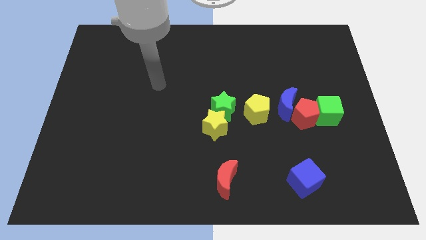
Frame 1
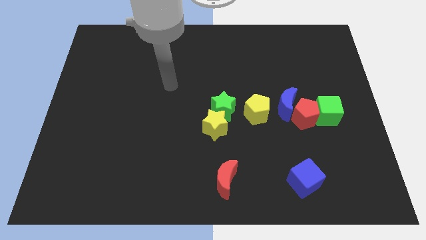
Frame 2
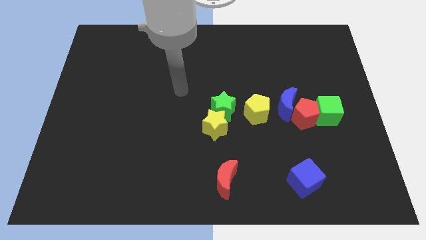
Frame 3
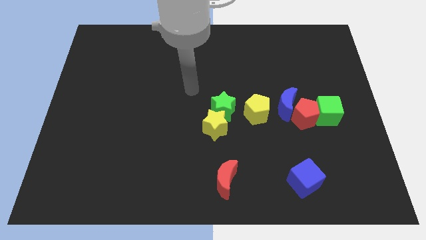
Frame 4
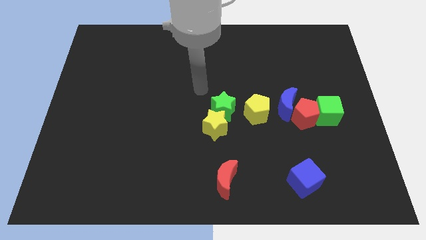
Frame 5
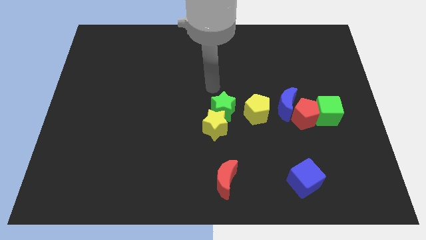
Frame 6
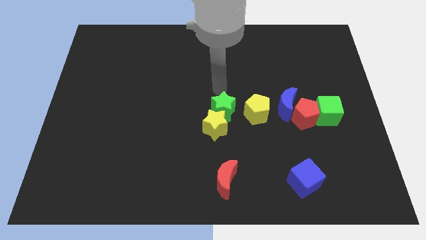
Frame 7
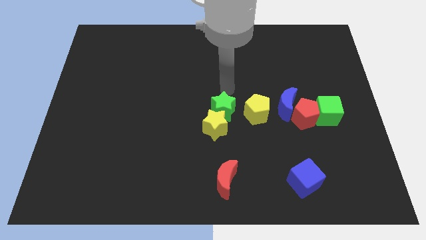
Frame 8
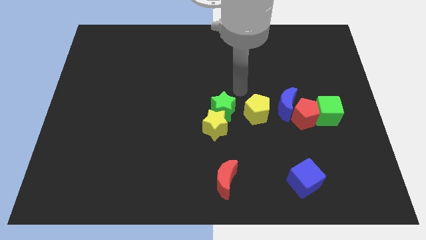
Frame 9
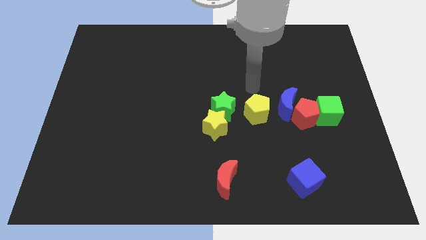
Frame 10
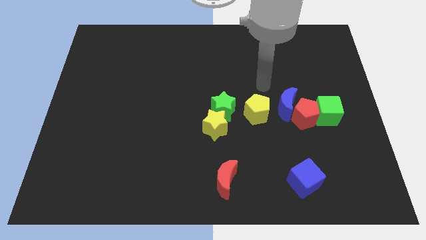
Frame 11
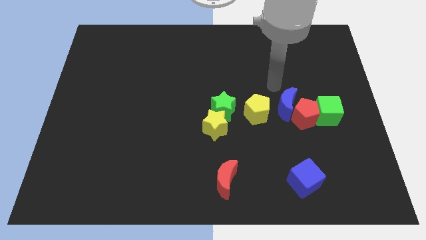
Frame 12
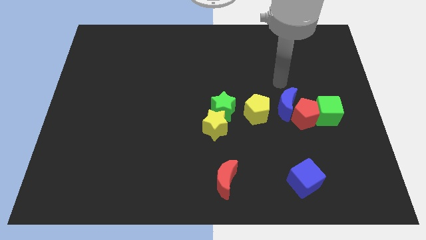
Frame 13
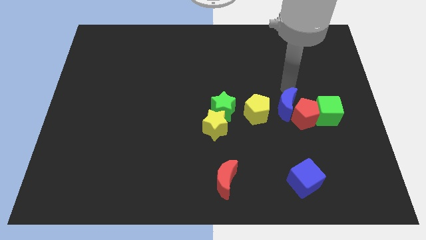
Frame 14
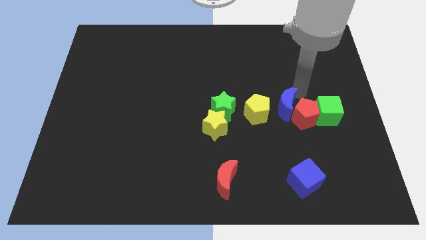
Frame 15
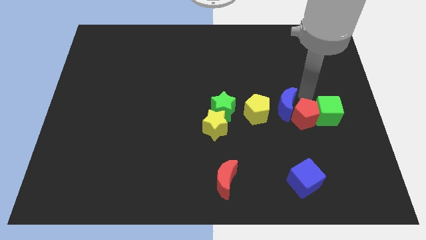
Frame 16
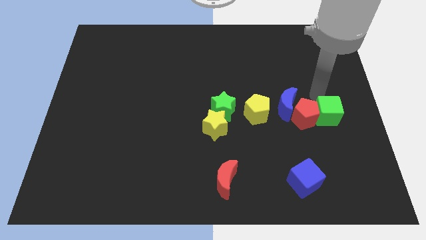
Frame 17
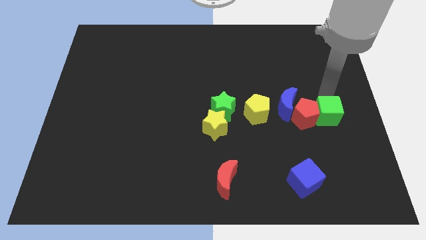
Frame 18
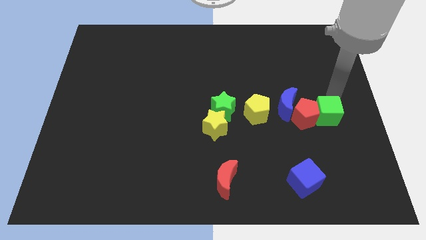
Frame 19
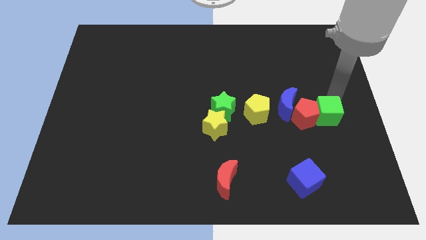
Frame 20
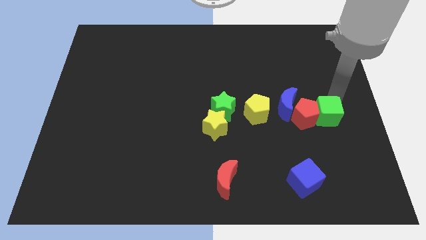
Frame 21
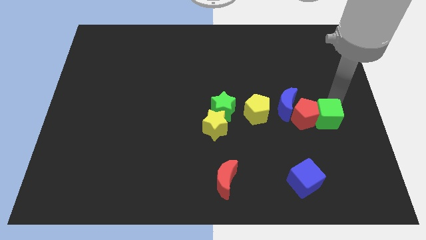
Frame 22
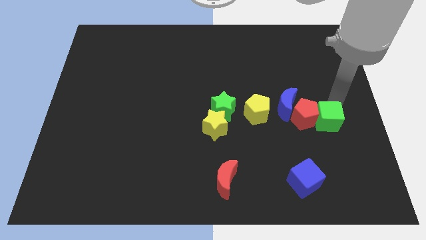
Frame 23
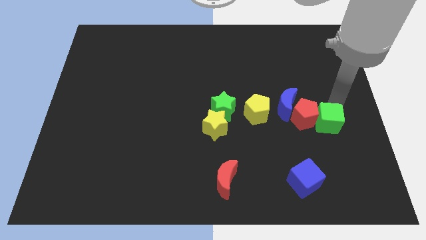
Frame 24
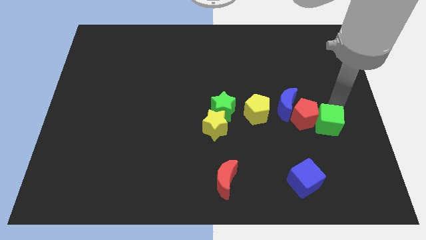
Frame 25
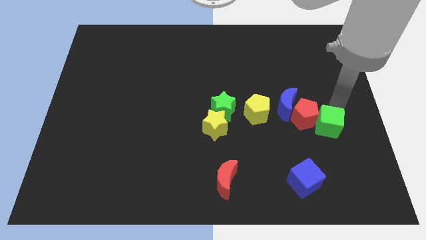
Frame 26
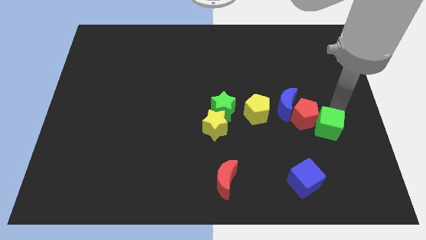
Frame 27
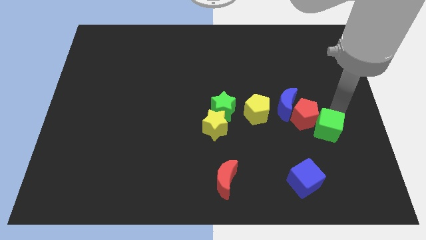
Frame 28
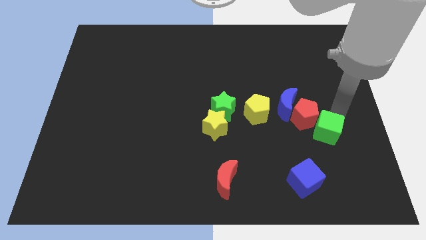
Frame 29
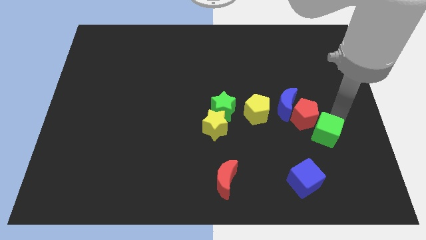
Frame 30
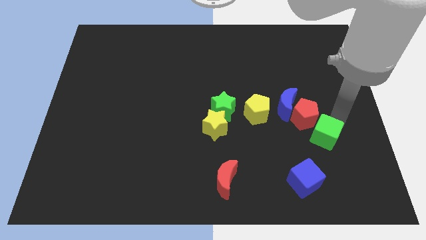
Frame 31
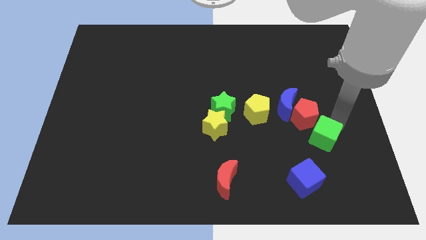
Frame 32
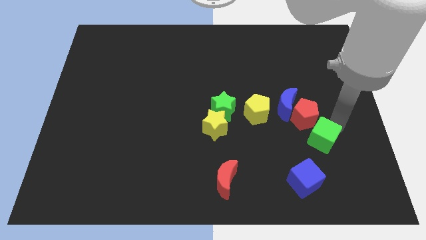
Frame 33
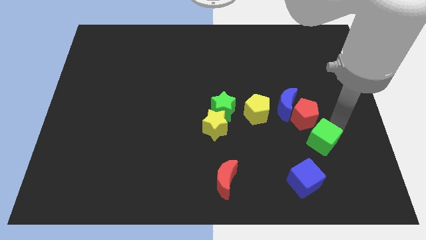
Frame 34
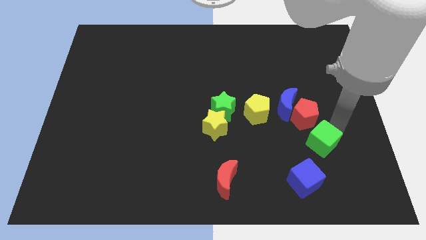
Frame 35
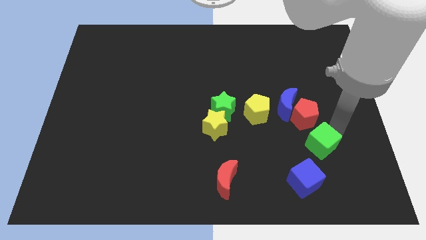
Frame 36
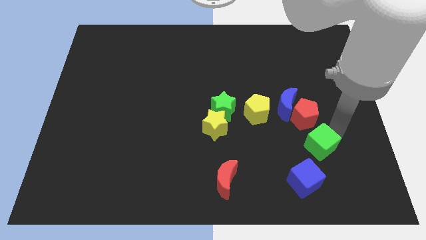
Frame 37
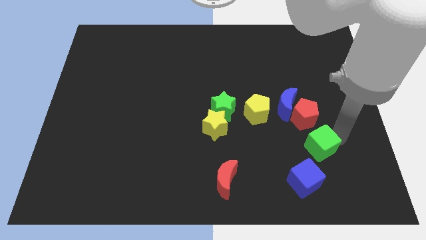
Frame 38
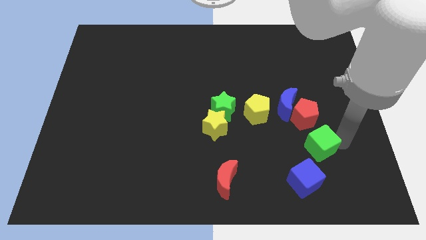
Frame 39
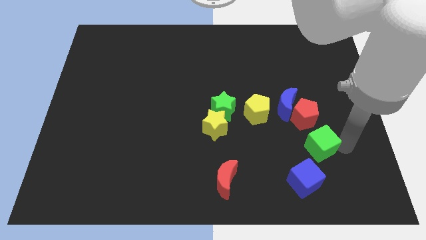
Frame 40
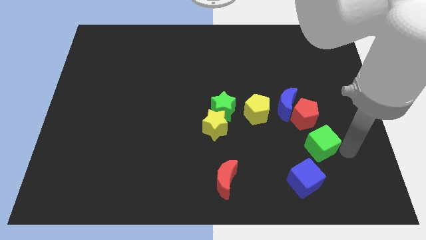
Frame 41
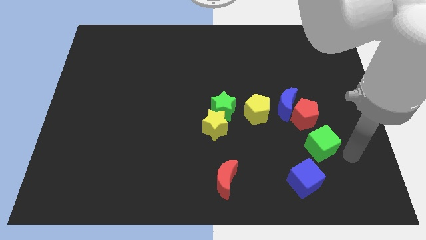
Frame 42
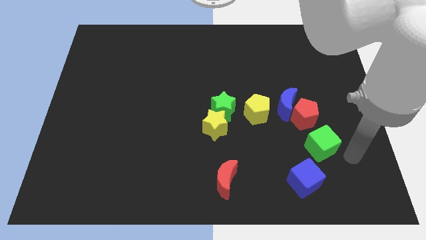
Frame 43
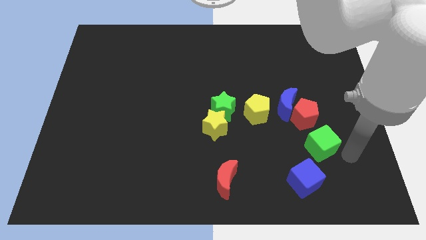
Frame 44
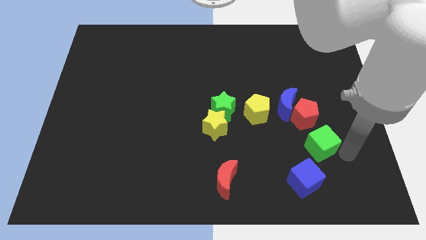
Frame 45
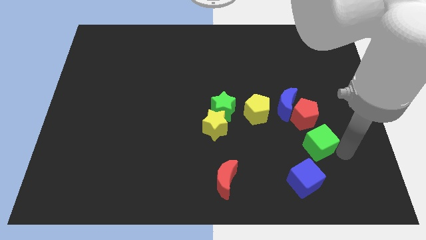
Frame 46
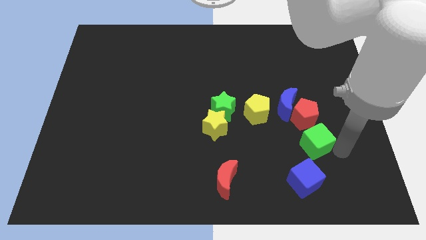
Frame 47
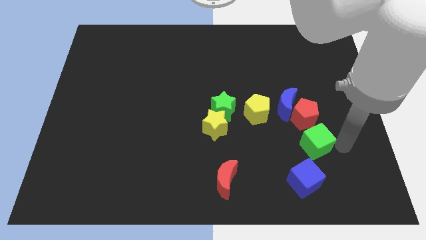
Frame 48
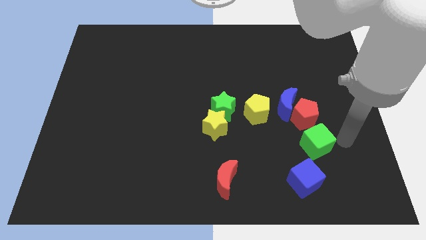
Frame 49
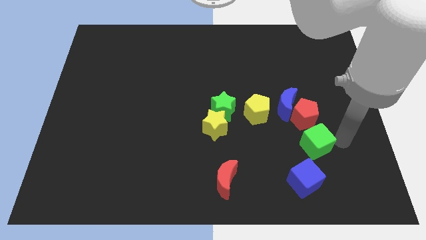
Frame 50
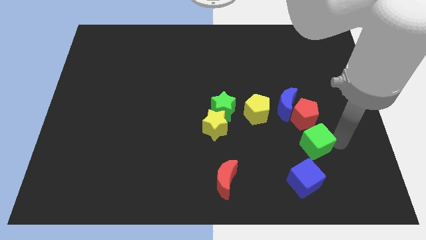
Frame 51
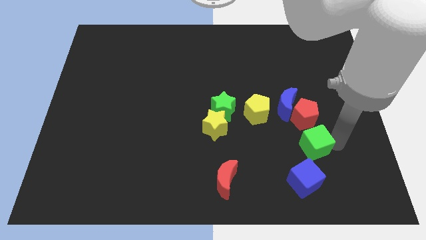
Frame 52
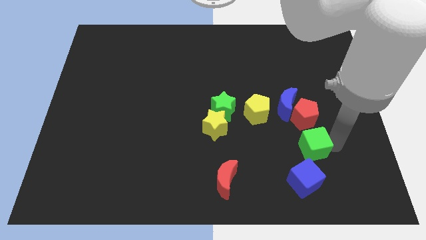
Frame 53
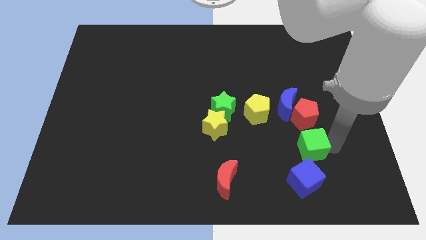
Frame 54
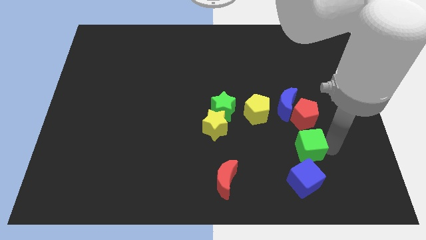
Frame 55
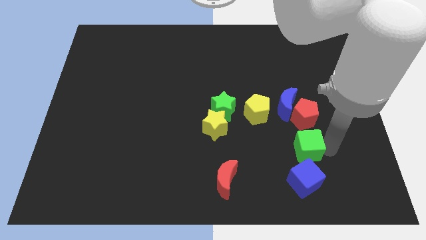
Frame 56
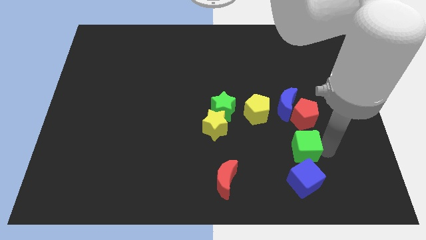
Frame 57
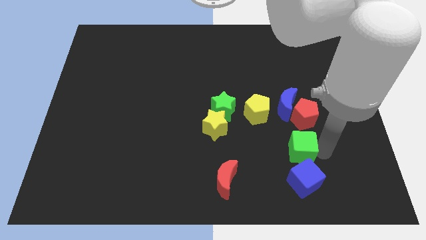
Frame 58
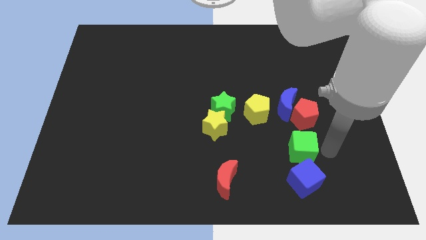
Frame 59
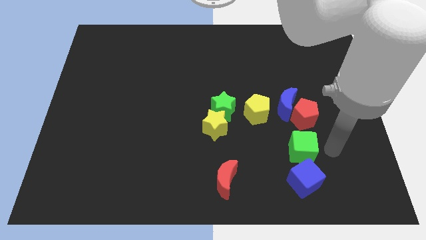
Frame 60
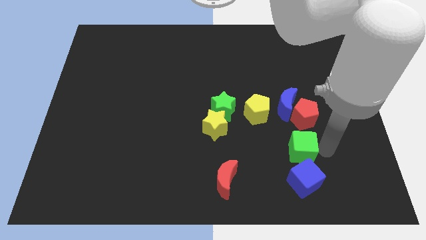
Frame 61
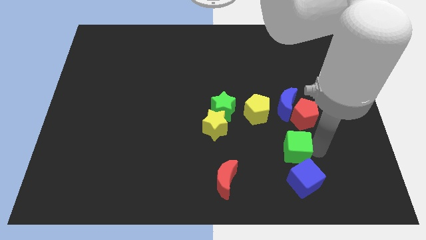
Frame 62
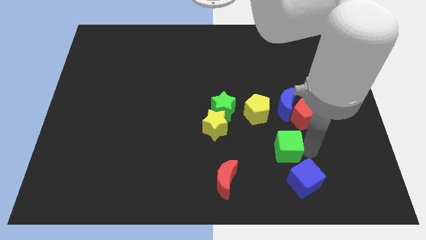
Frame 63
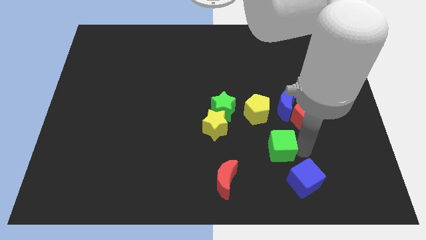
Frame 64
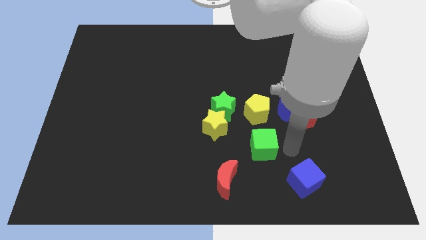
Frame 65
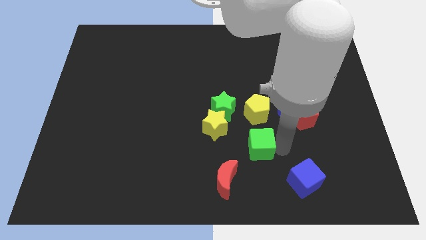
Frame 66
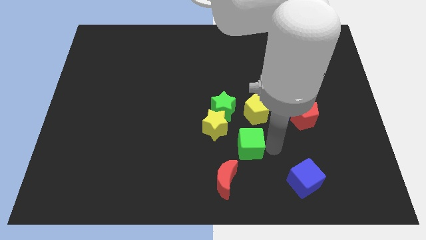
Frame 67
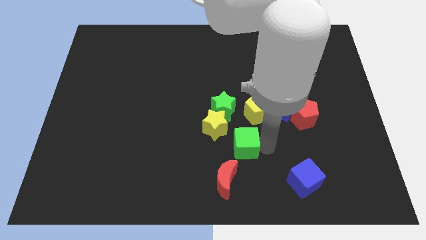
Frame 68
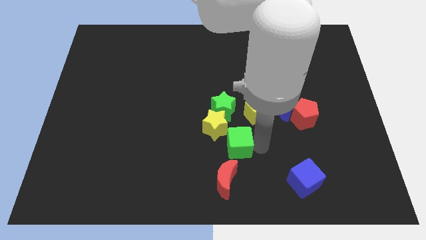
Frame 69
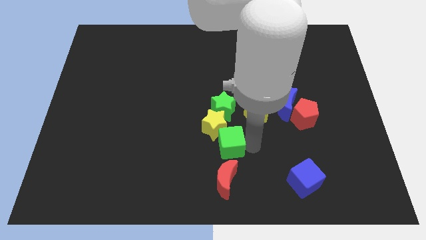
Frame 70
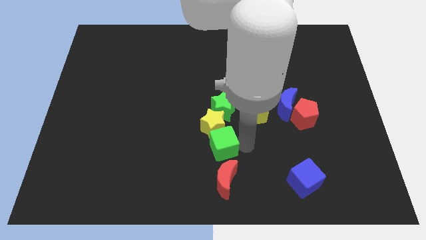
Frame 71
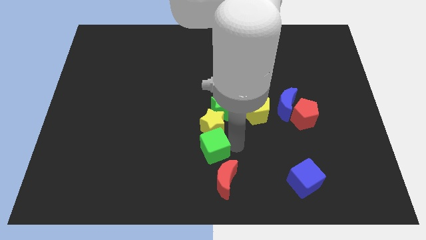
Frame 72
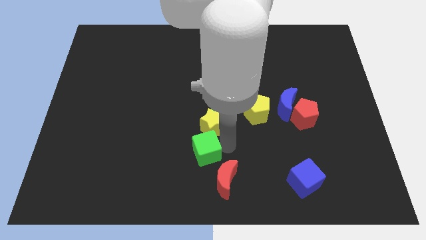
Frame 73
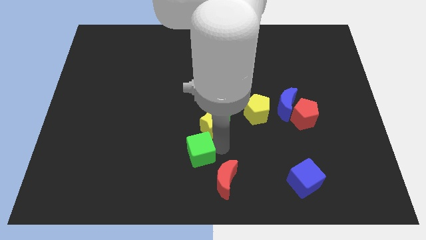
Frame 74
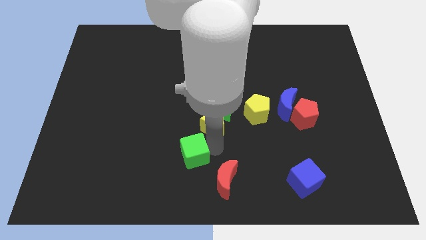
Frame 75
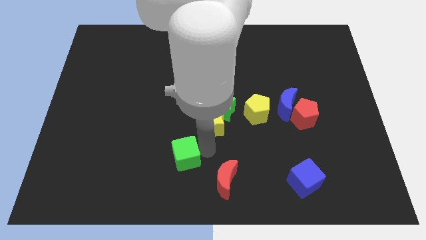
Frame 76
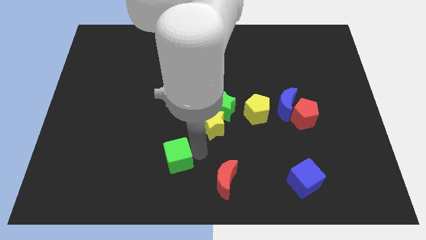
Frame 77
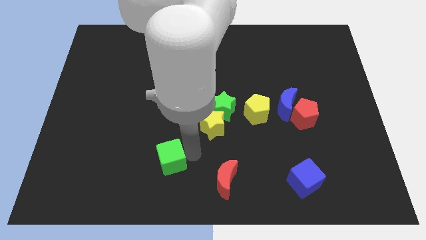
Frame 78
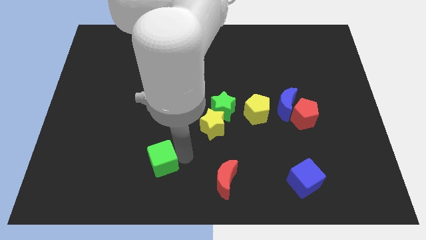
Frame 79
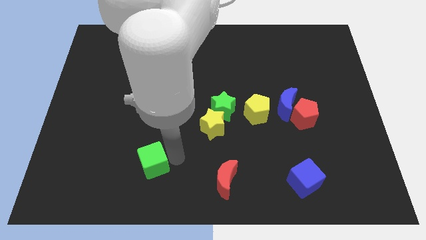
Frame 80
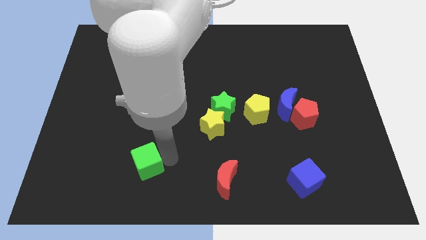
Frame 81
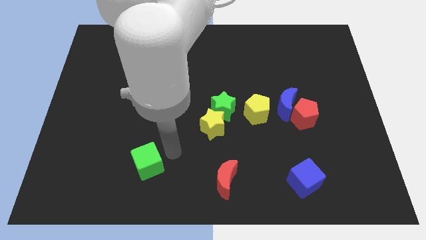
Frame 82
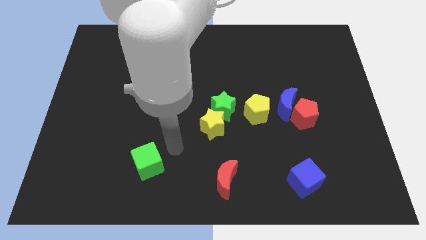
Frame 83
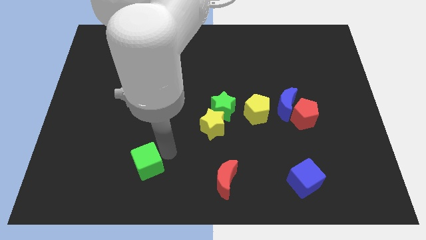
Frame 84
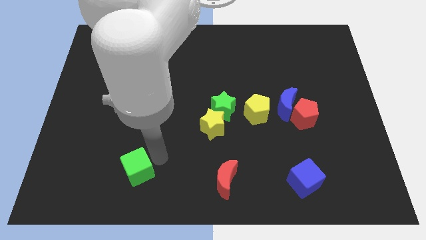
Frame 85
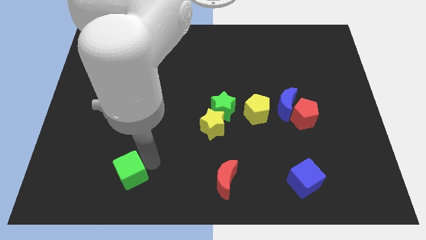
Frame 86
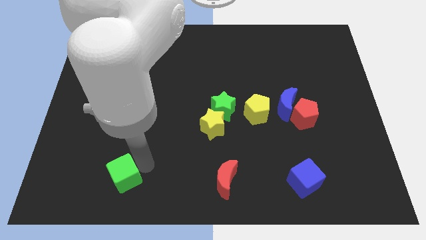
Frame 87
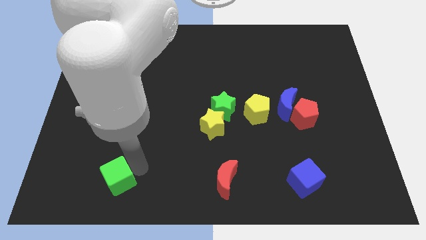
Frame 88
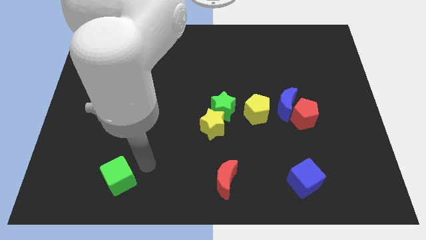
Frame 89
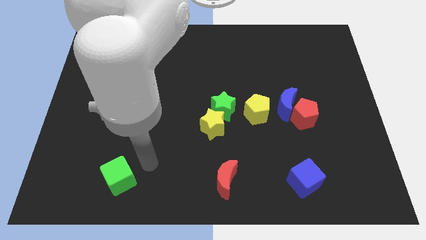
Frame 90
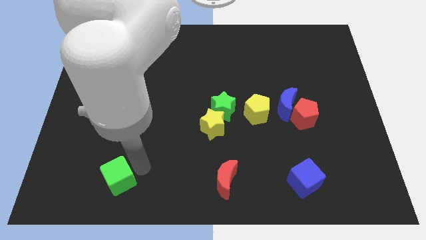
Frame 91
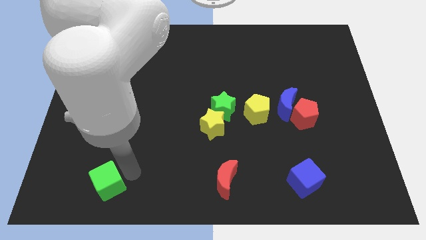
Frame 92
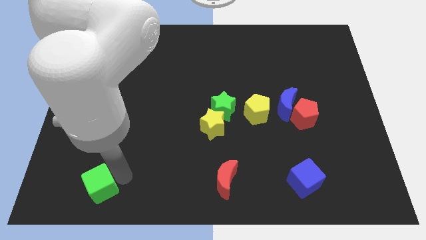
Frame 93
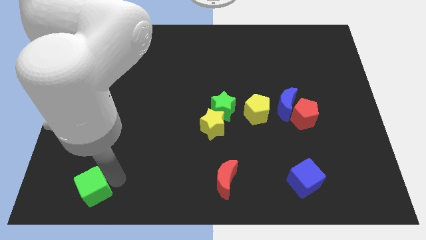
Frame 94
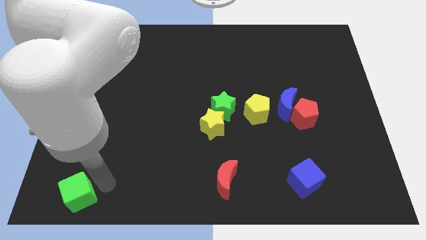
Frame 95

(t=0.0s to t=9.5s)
slide the green cube to the bottom left
